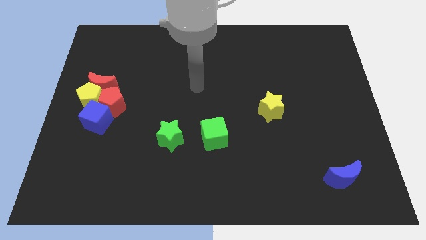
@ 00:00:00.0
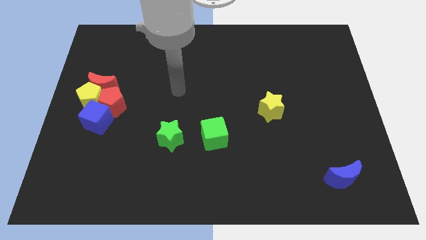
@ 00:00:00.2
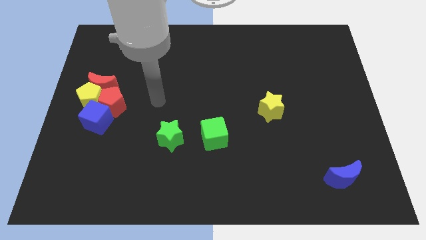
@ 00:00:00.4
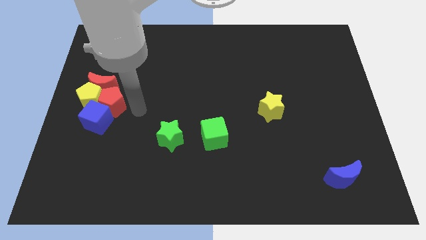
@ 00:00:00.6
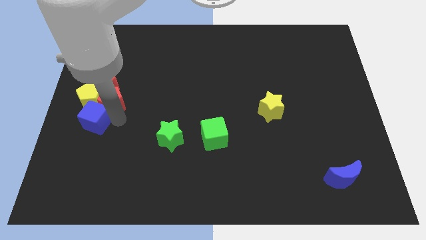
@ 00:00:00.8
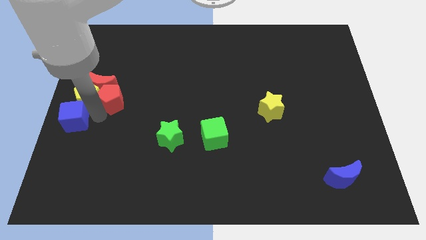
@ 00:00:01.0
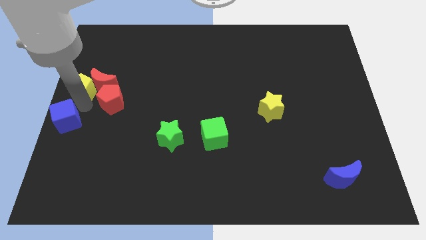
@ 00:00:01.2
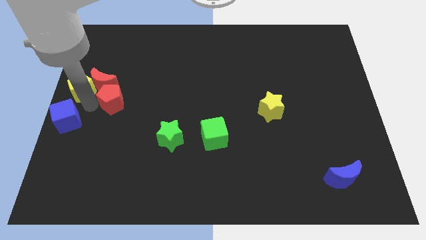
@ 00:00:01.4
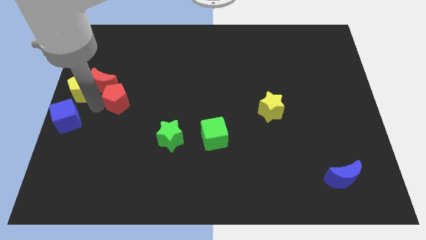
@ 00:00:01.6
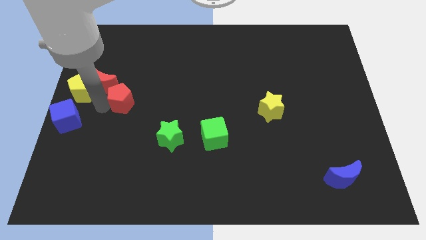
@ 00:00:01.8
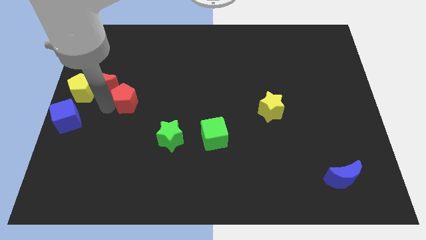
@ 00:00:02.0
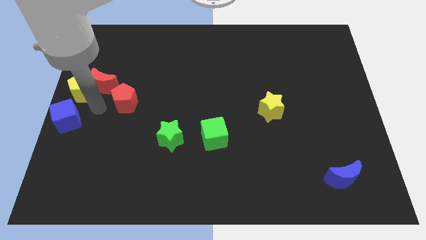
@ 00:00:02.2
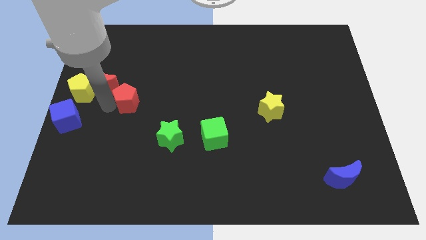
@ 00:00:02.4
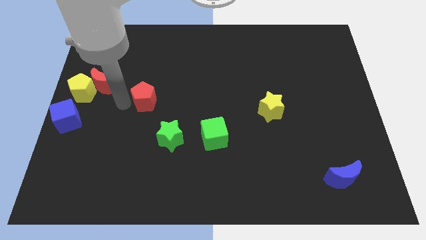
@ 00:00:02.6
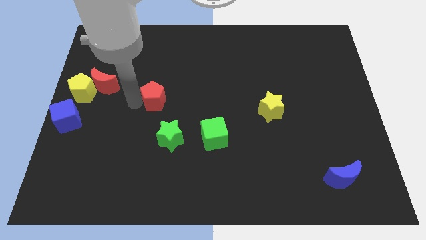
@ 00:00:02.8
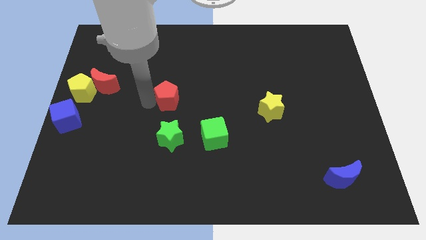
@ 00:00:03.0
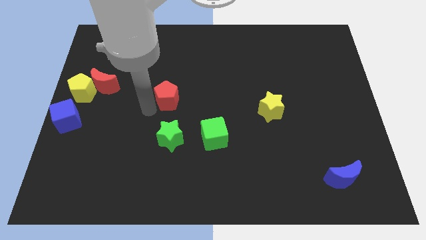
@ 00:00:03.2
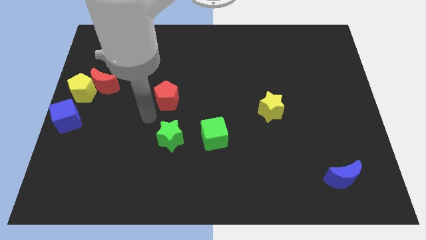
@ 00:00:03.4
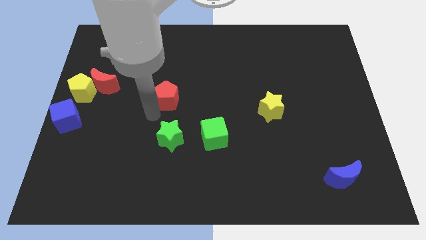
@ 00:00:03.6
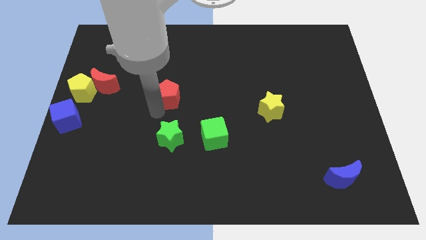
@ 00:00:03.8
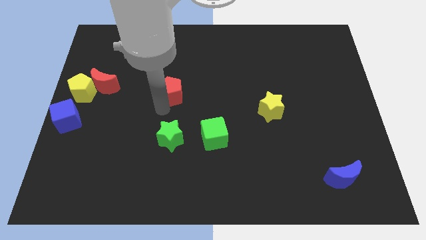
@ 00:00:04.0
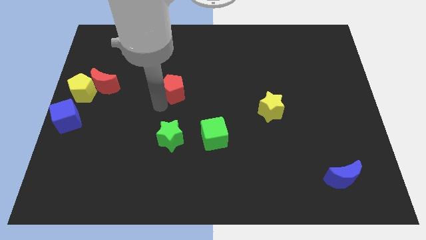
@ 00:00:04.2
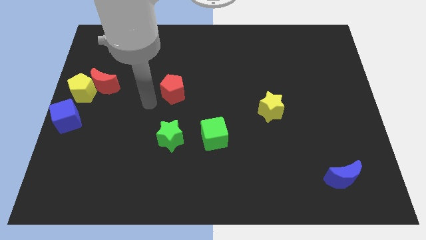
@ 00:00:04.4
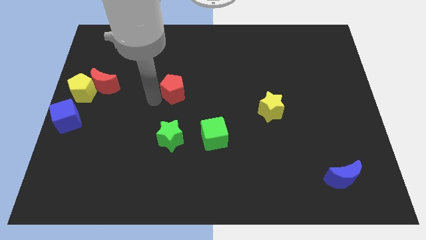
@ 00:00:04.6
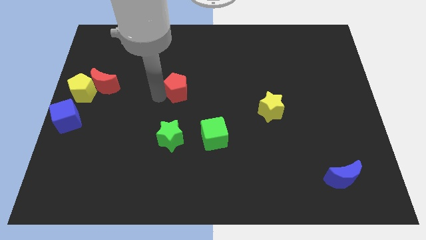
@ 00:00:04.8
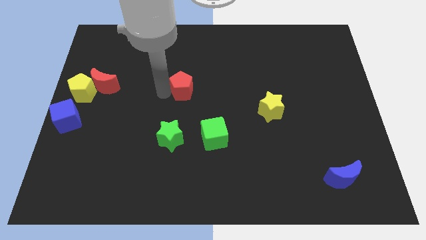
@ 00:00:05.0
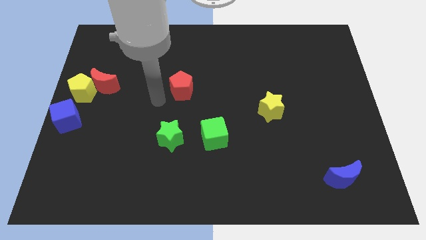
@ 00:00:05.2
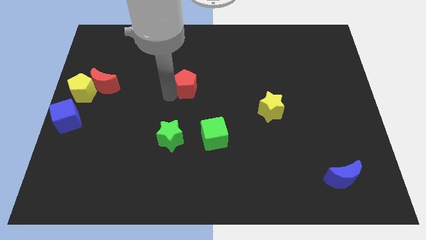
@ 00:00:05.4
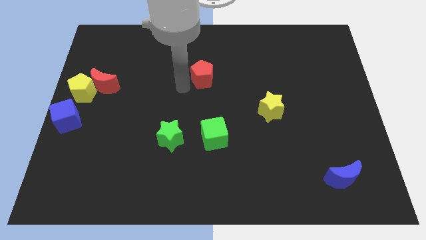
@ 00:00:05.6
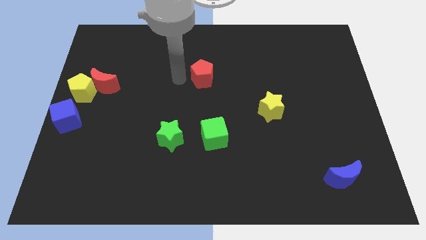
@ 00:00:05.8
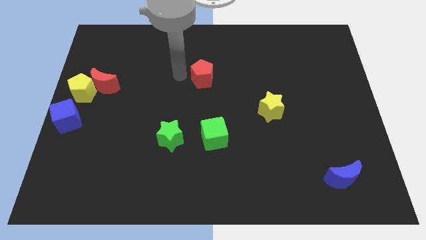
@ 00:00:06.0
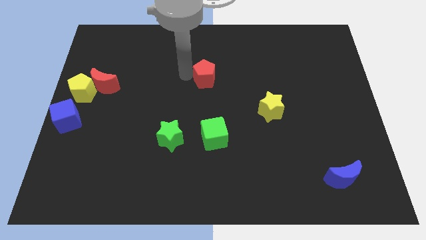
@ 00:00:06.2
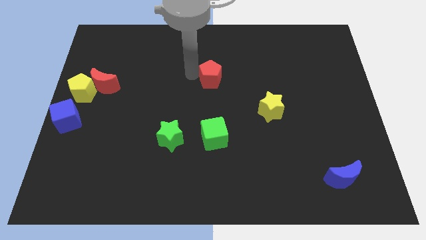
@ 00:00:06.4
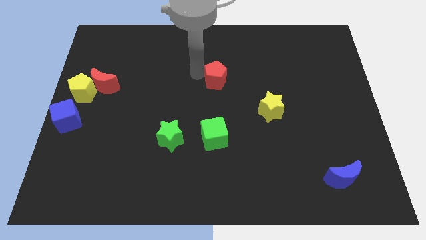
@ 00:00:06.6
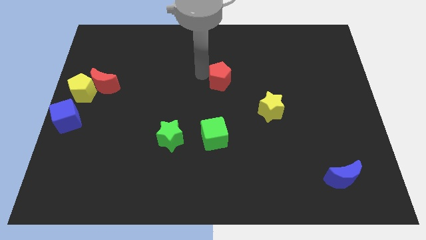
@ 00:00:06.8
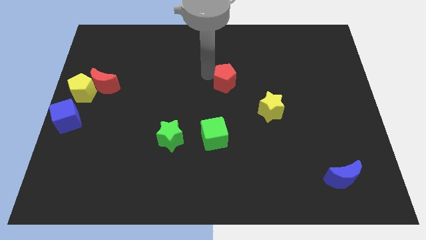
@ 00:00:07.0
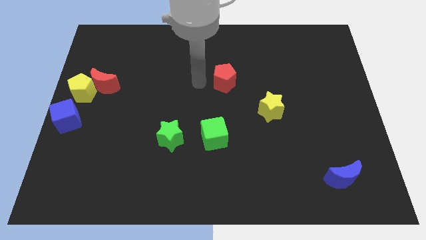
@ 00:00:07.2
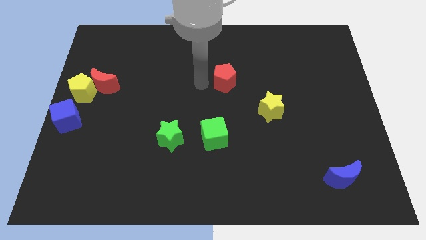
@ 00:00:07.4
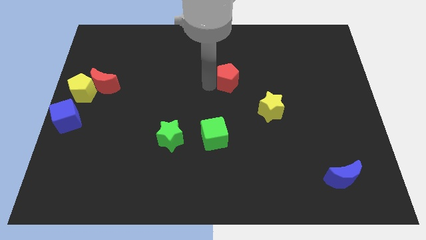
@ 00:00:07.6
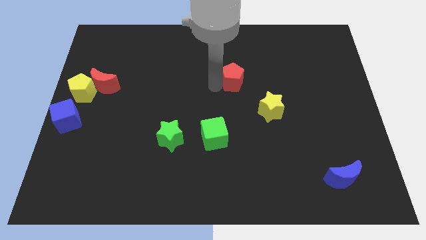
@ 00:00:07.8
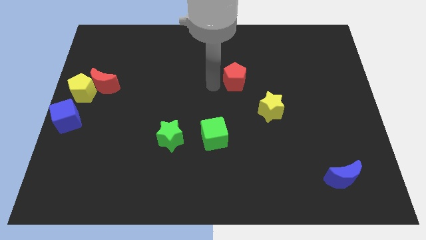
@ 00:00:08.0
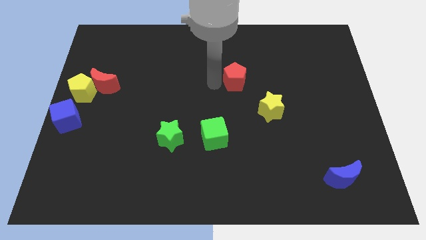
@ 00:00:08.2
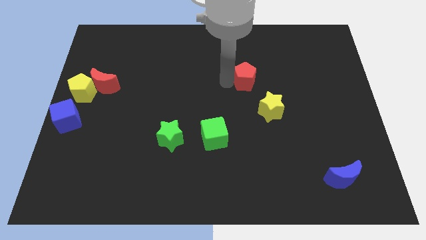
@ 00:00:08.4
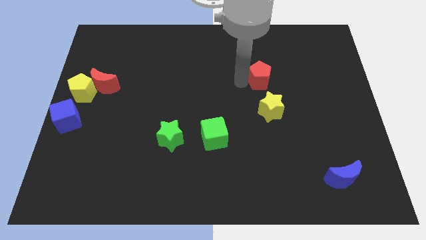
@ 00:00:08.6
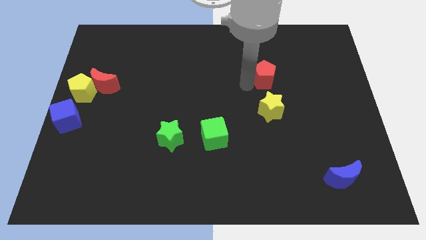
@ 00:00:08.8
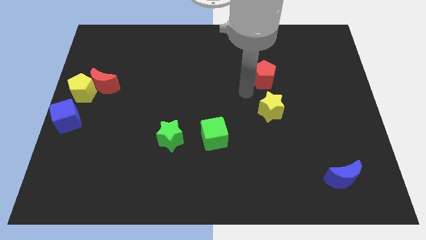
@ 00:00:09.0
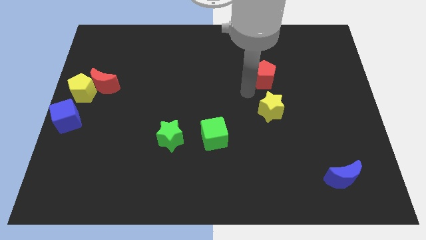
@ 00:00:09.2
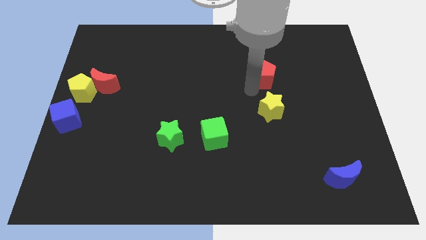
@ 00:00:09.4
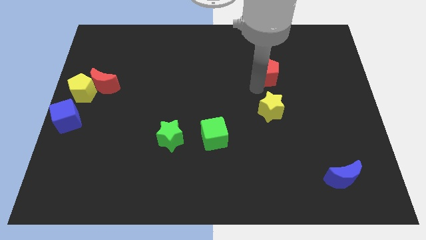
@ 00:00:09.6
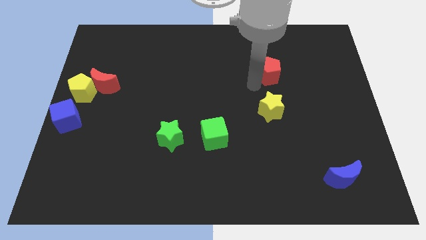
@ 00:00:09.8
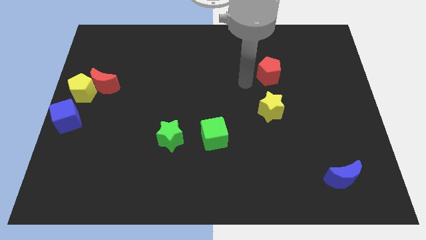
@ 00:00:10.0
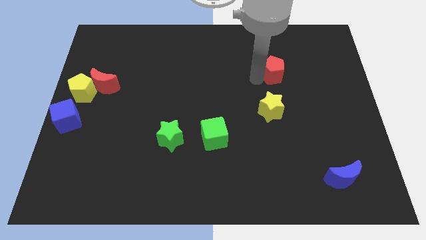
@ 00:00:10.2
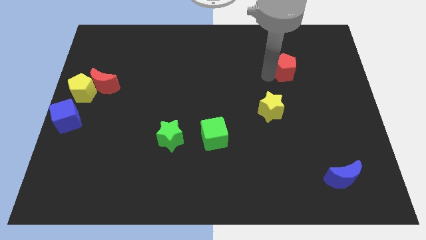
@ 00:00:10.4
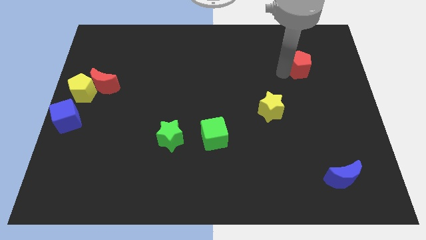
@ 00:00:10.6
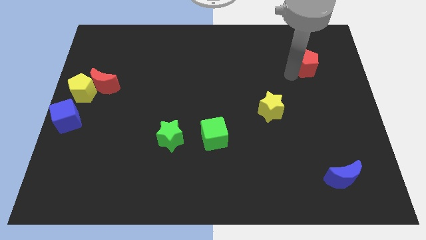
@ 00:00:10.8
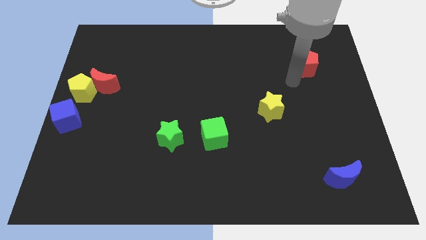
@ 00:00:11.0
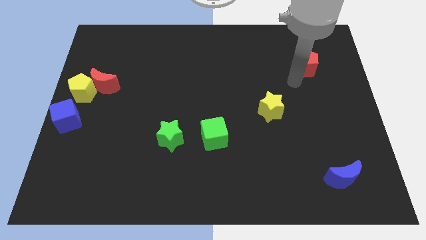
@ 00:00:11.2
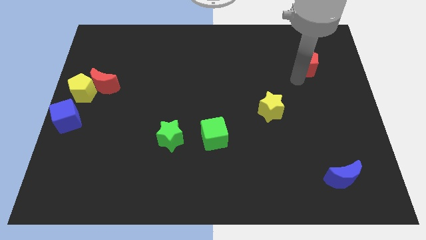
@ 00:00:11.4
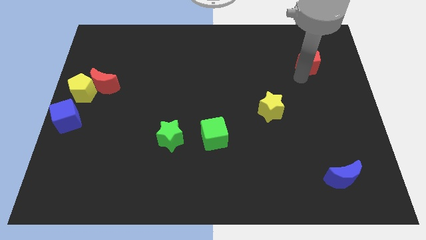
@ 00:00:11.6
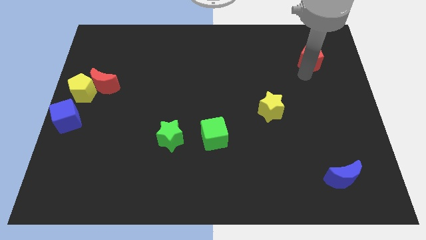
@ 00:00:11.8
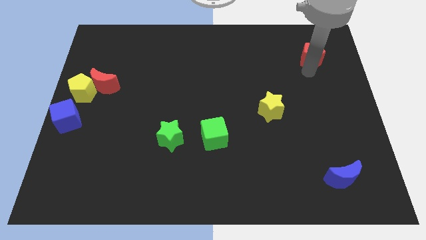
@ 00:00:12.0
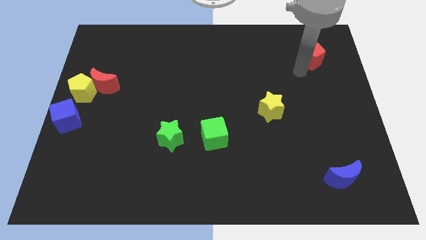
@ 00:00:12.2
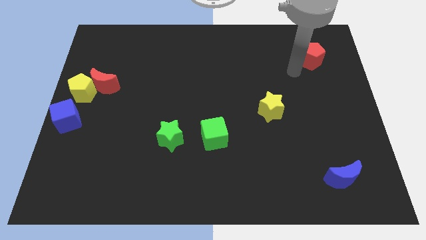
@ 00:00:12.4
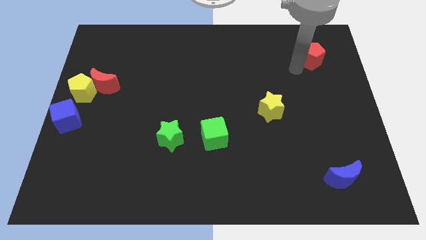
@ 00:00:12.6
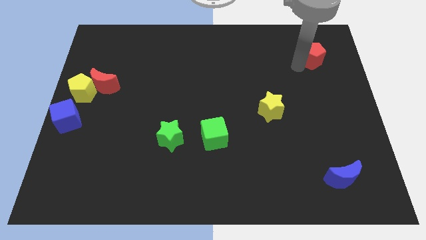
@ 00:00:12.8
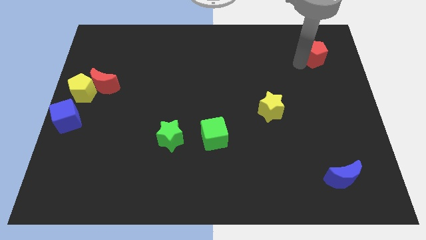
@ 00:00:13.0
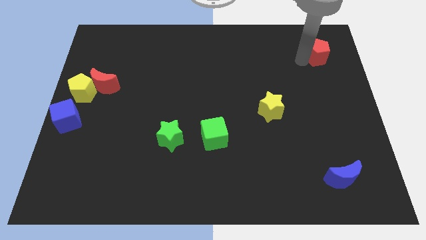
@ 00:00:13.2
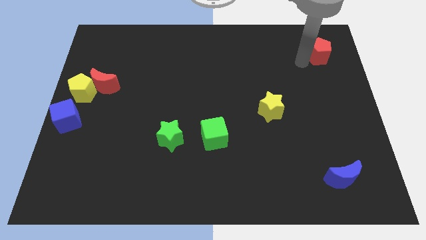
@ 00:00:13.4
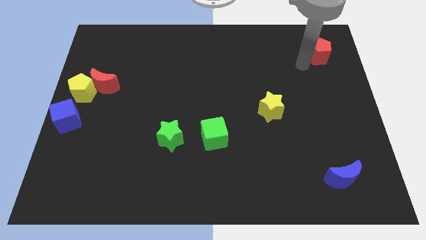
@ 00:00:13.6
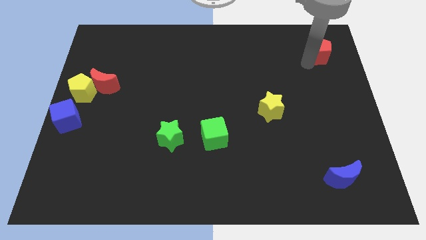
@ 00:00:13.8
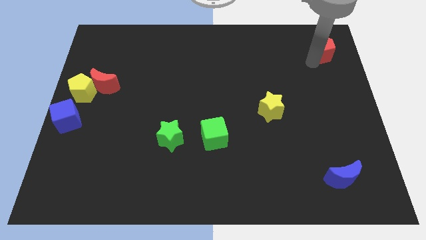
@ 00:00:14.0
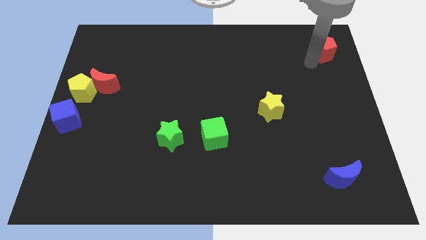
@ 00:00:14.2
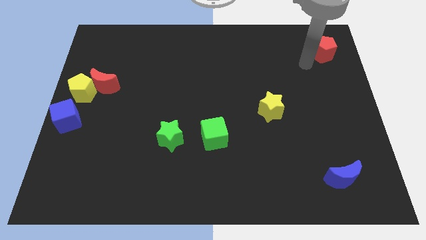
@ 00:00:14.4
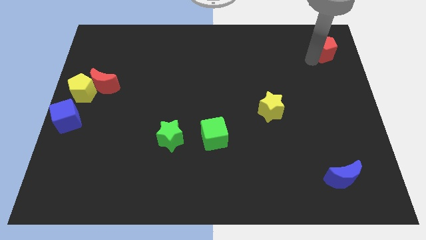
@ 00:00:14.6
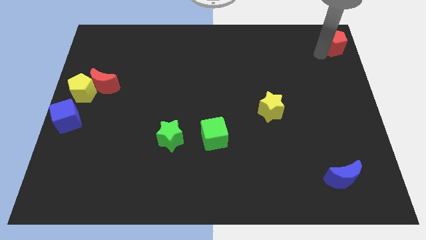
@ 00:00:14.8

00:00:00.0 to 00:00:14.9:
move the red pentagon to the top right corner
